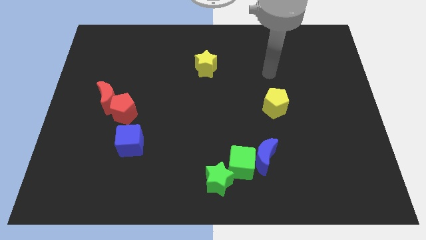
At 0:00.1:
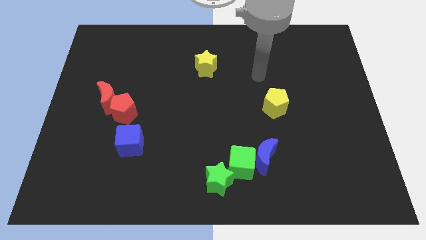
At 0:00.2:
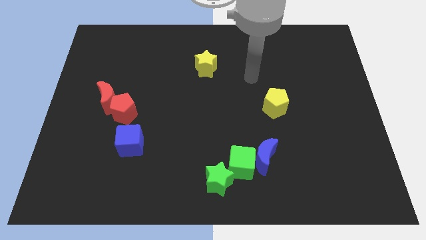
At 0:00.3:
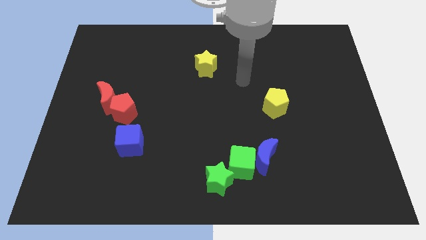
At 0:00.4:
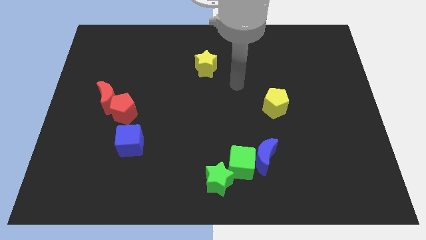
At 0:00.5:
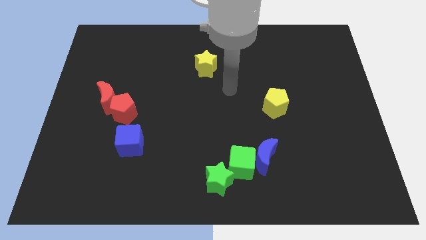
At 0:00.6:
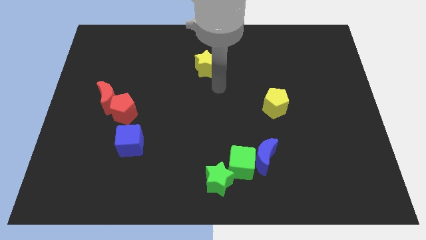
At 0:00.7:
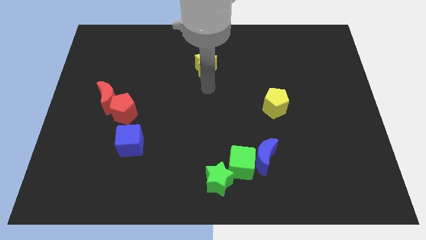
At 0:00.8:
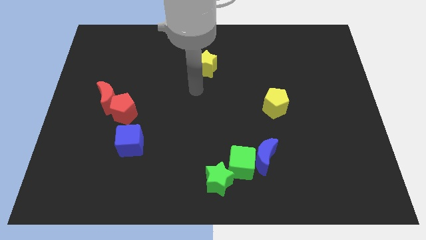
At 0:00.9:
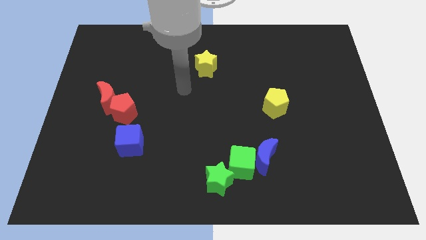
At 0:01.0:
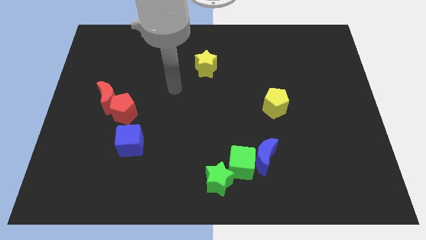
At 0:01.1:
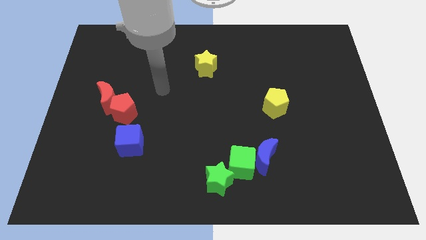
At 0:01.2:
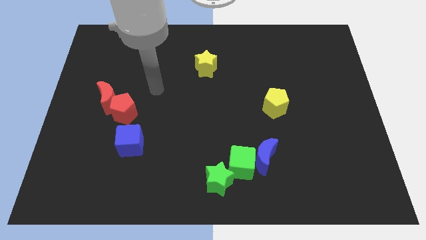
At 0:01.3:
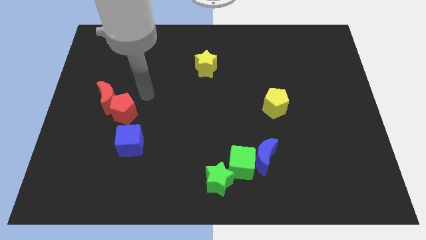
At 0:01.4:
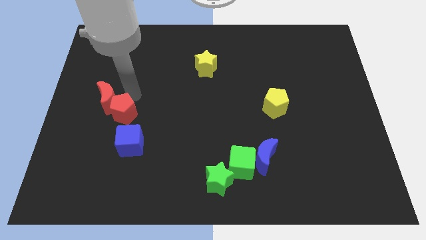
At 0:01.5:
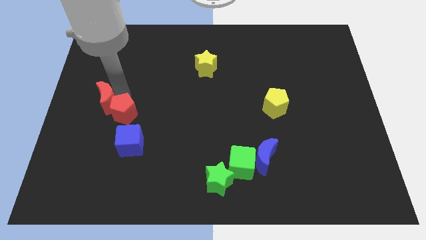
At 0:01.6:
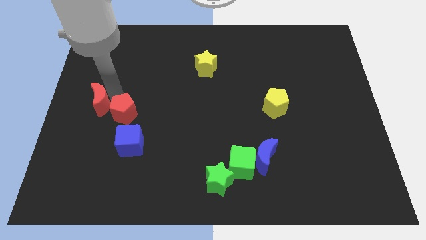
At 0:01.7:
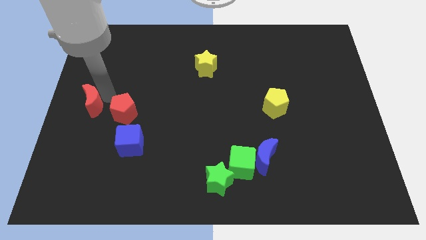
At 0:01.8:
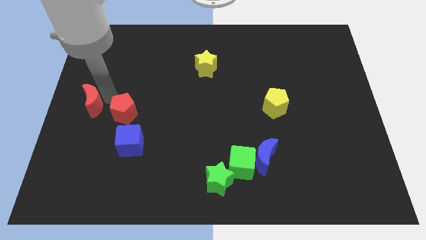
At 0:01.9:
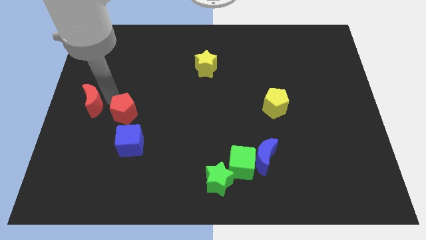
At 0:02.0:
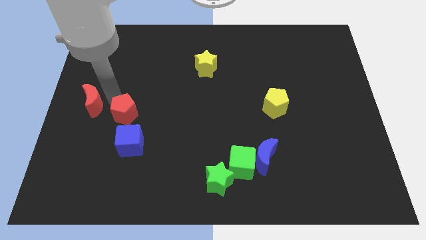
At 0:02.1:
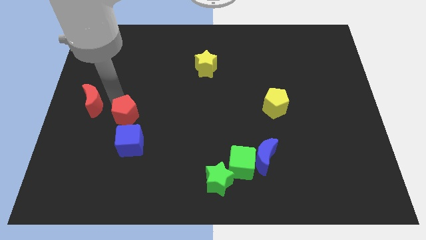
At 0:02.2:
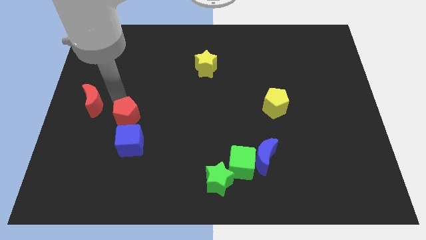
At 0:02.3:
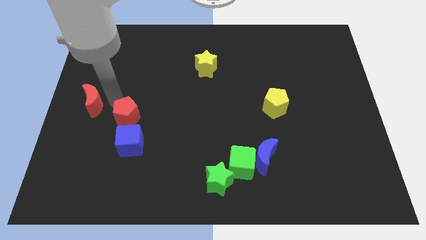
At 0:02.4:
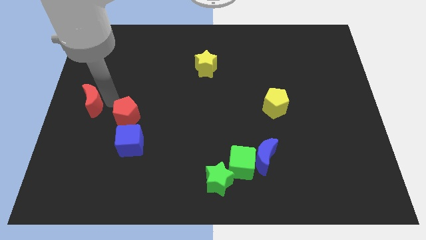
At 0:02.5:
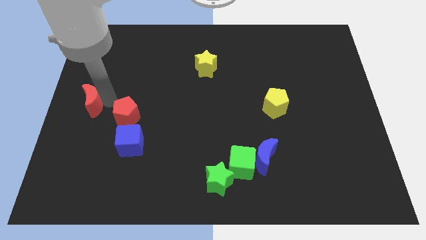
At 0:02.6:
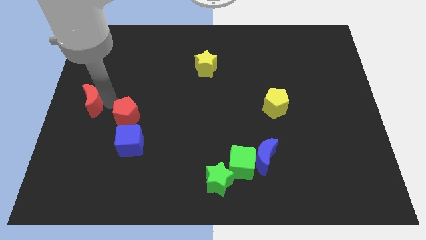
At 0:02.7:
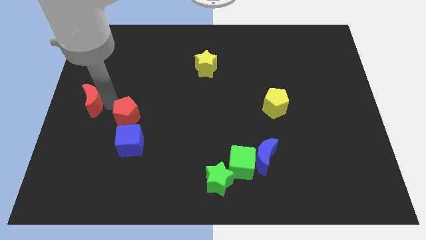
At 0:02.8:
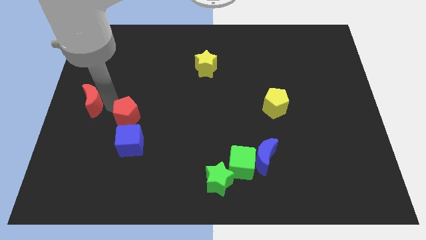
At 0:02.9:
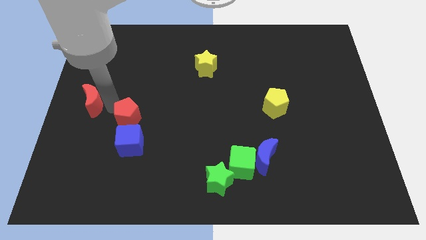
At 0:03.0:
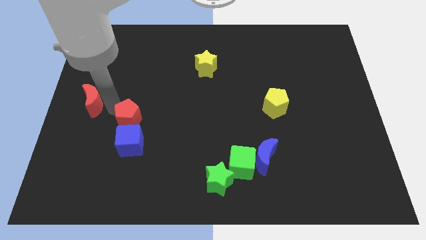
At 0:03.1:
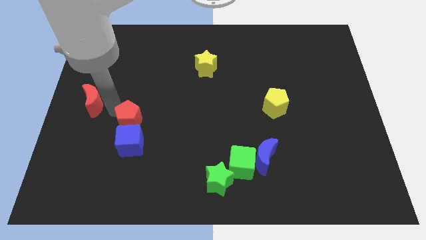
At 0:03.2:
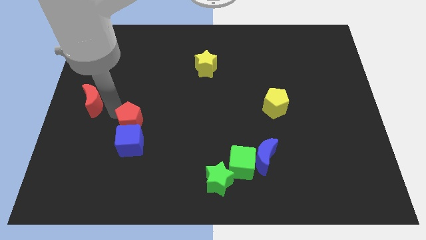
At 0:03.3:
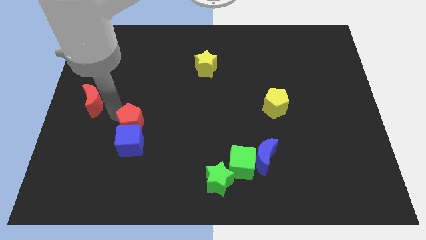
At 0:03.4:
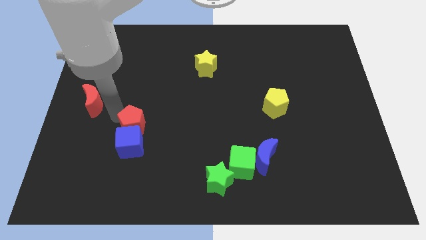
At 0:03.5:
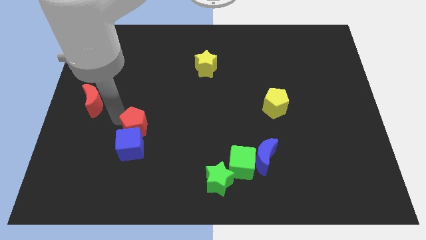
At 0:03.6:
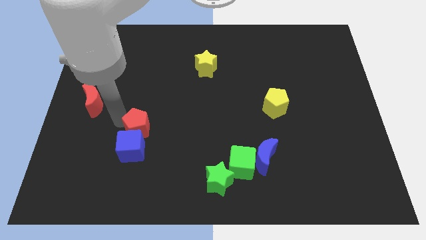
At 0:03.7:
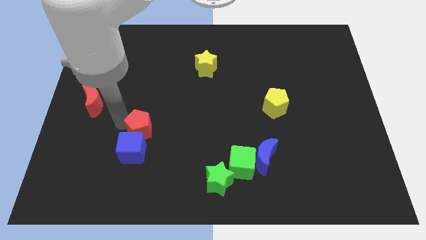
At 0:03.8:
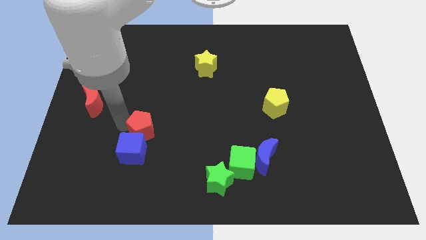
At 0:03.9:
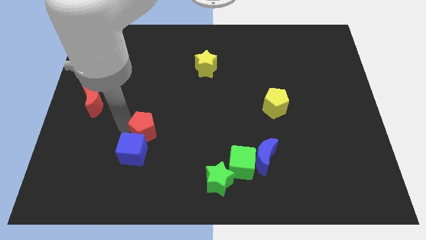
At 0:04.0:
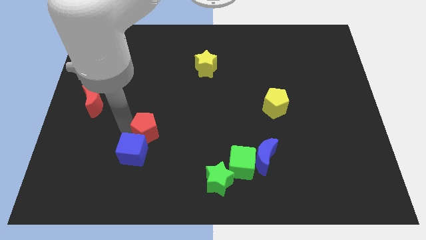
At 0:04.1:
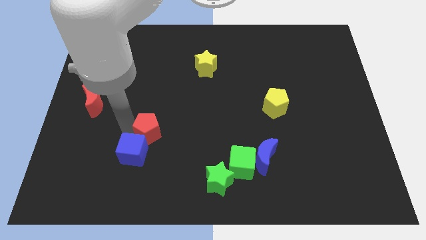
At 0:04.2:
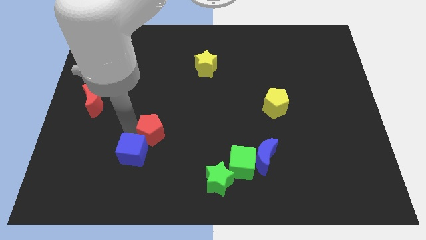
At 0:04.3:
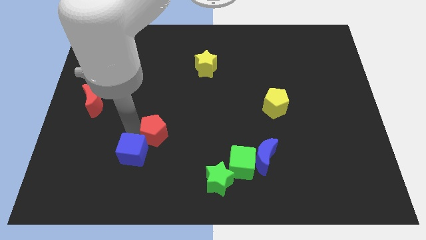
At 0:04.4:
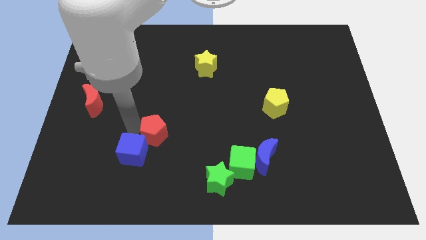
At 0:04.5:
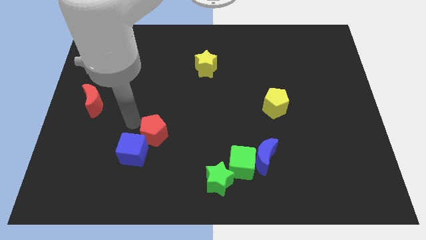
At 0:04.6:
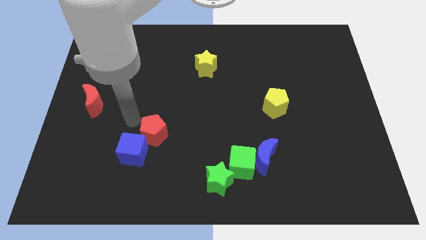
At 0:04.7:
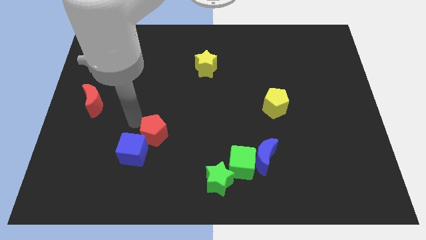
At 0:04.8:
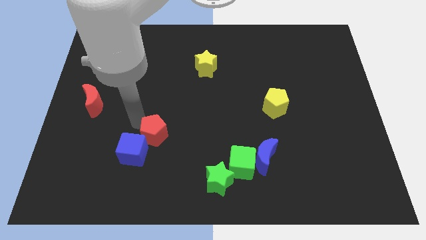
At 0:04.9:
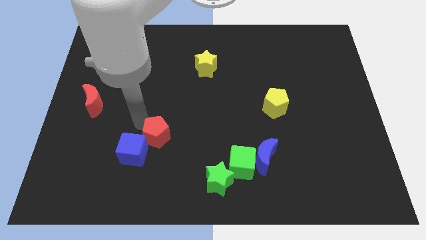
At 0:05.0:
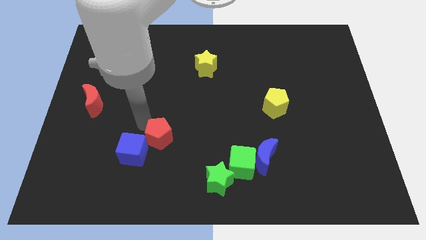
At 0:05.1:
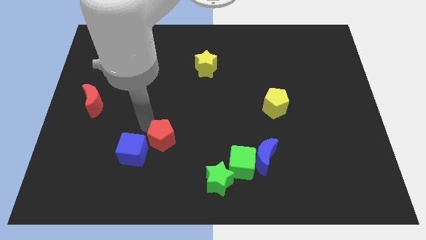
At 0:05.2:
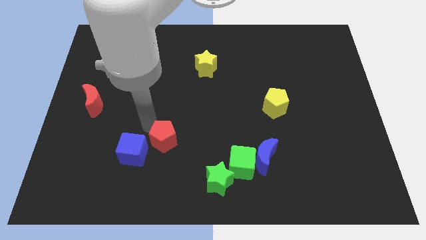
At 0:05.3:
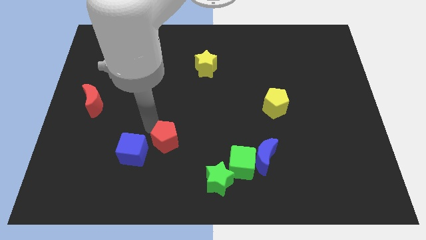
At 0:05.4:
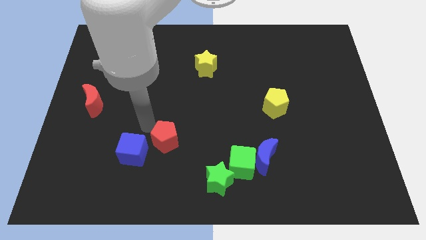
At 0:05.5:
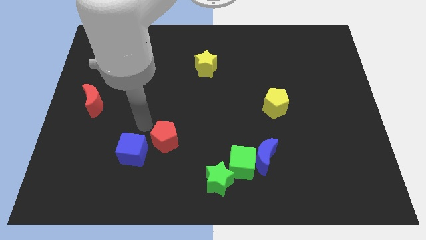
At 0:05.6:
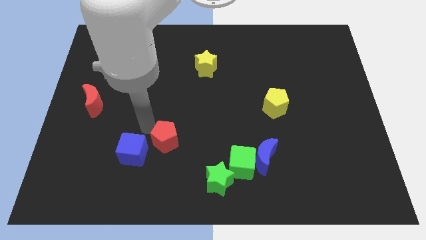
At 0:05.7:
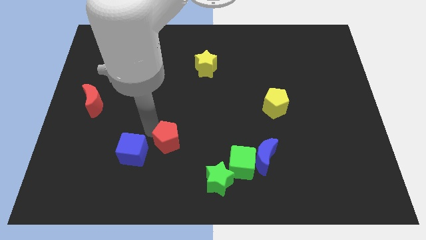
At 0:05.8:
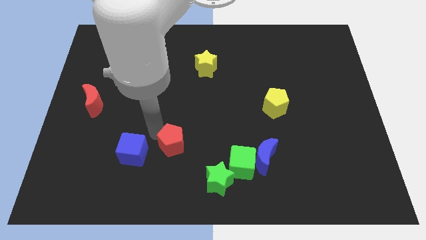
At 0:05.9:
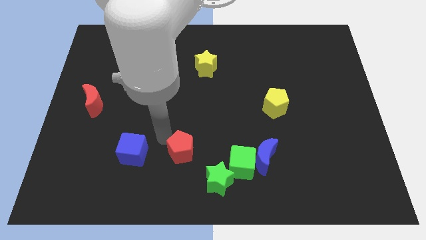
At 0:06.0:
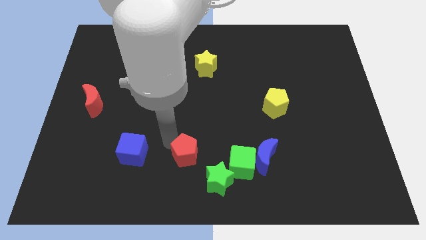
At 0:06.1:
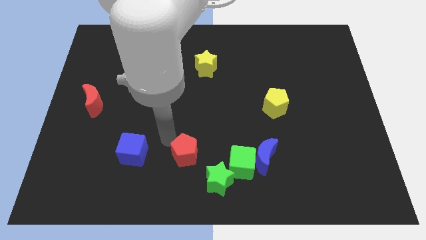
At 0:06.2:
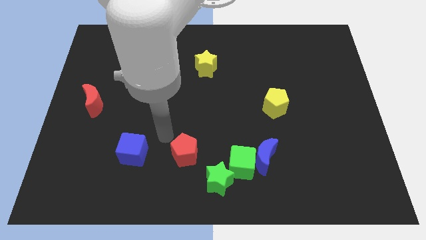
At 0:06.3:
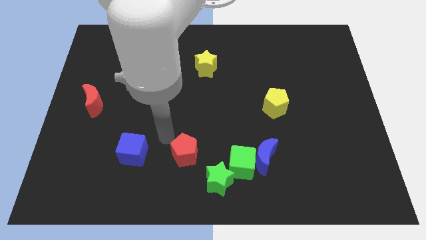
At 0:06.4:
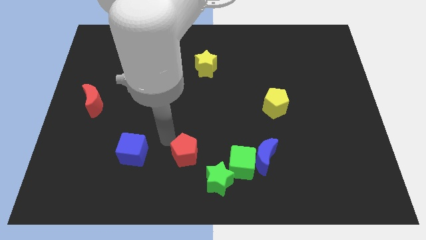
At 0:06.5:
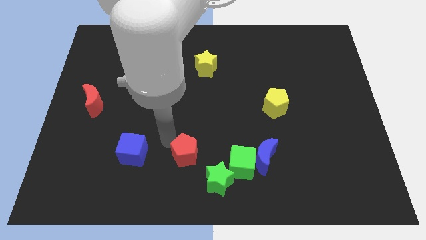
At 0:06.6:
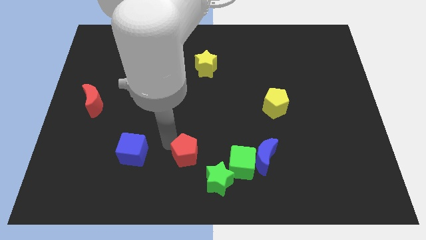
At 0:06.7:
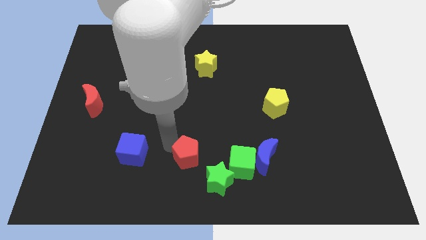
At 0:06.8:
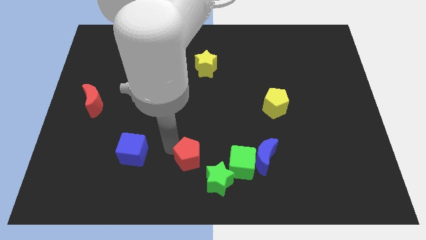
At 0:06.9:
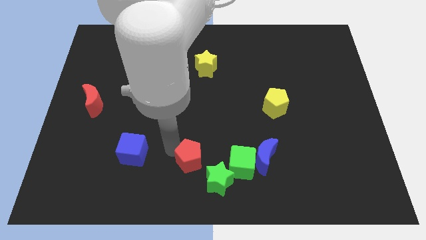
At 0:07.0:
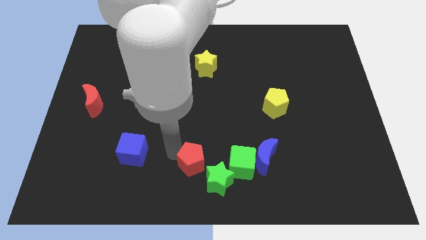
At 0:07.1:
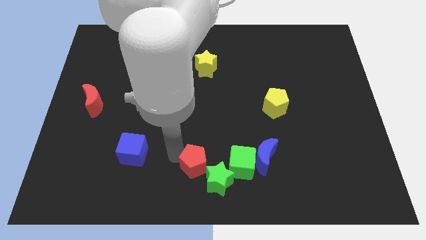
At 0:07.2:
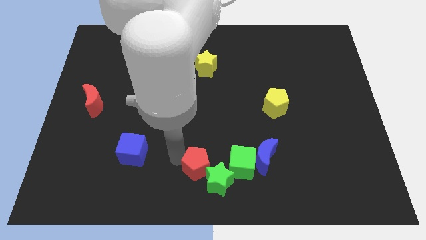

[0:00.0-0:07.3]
put the red pentagon close to the green star
